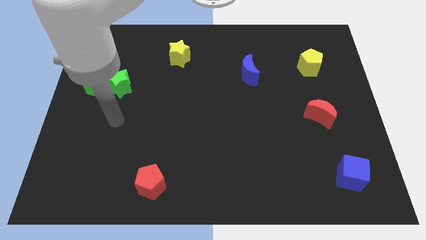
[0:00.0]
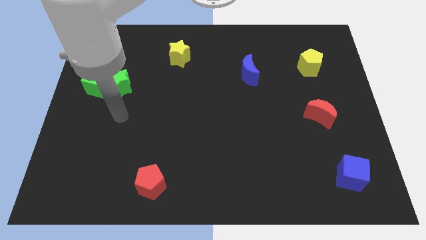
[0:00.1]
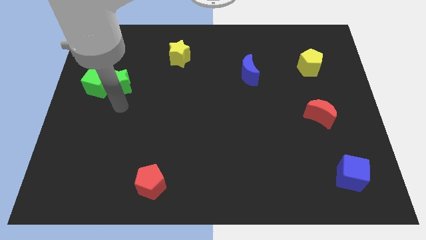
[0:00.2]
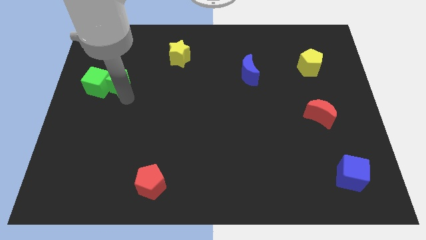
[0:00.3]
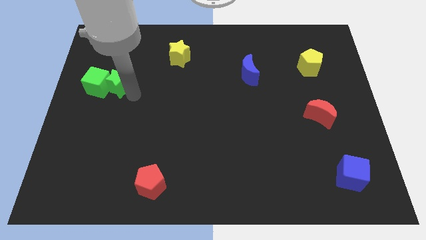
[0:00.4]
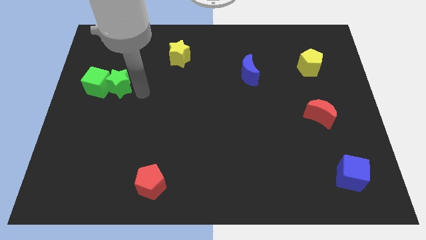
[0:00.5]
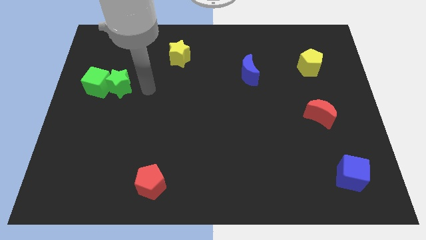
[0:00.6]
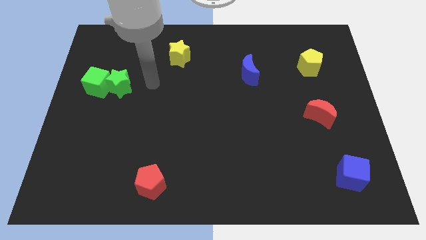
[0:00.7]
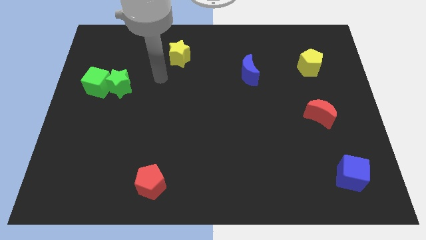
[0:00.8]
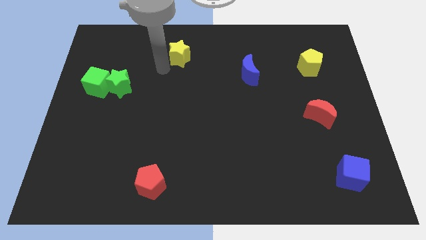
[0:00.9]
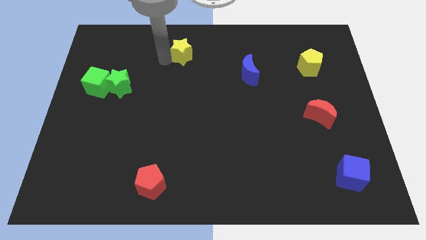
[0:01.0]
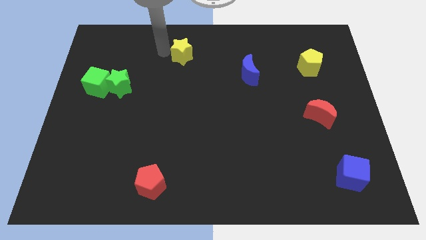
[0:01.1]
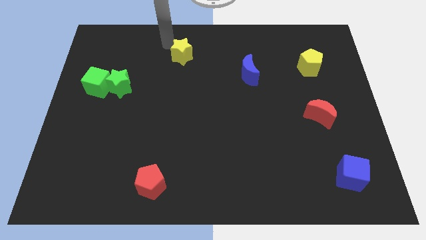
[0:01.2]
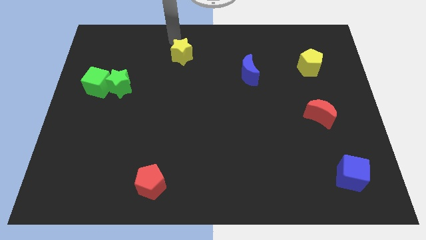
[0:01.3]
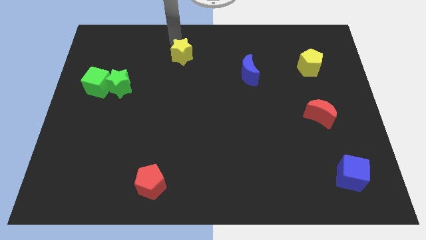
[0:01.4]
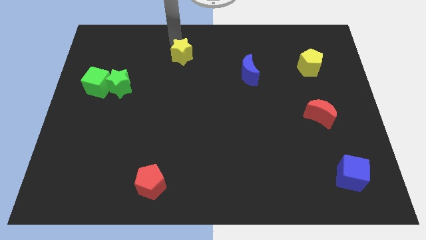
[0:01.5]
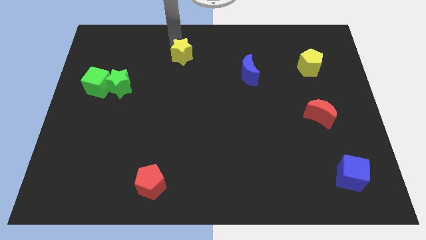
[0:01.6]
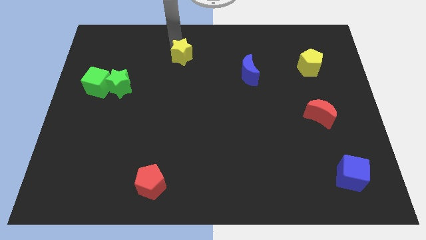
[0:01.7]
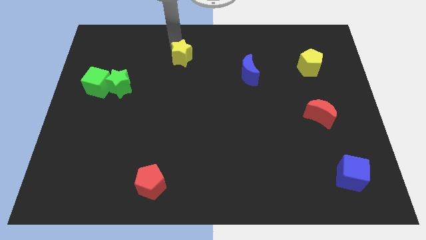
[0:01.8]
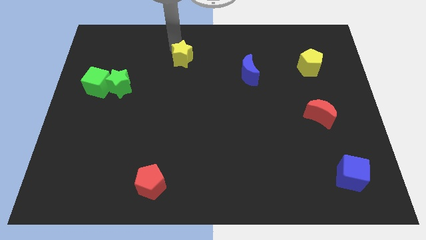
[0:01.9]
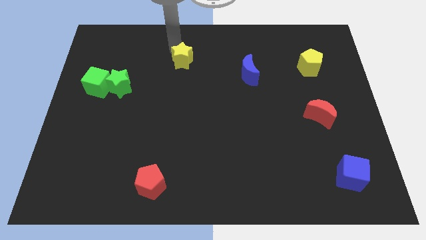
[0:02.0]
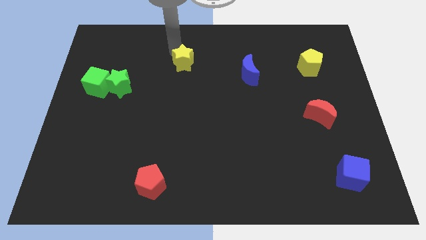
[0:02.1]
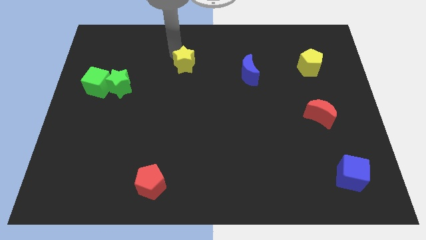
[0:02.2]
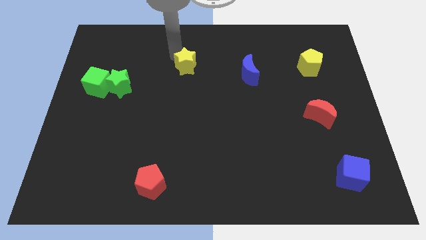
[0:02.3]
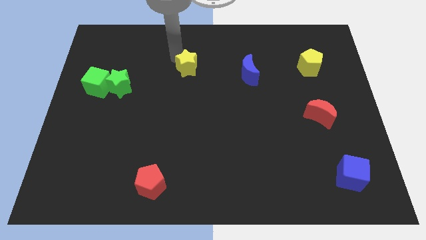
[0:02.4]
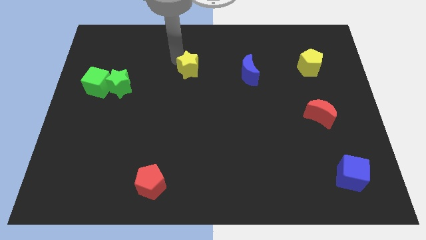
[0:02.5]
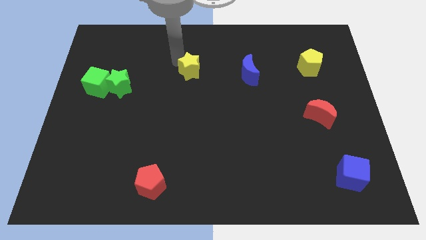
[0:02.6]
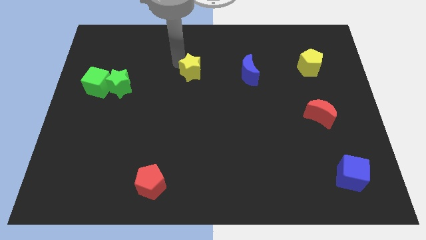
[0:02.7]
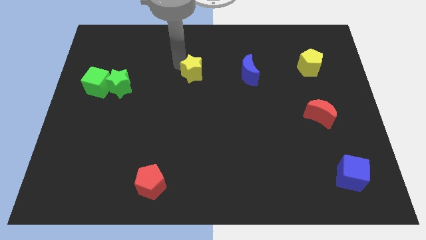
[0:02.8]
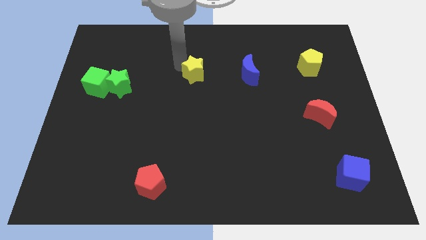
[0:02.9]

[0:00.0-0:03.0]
slide the yellow star a little diagonally down and right

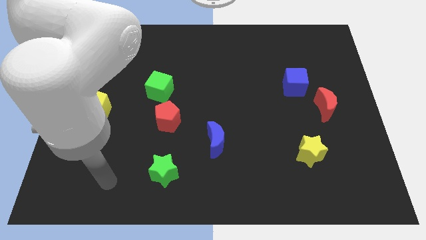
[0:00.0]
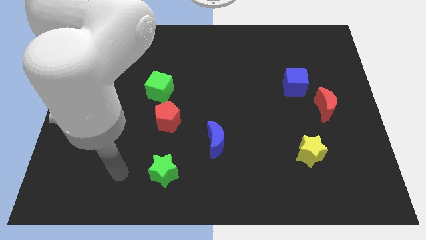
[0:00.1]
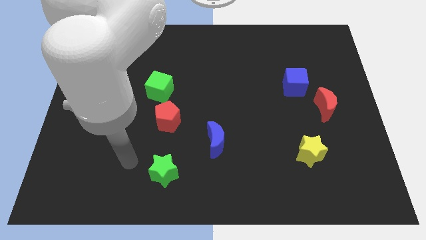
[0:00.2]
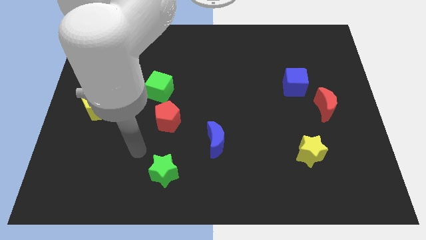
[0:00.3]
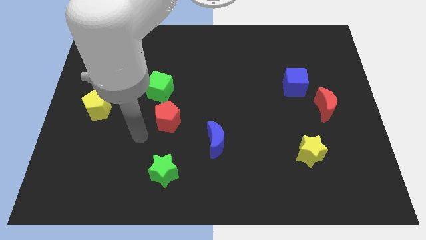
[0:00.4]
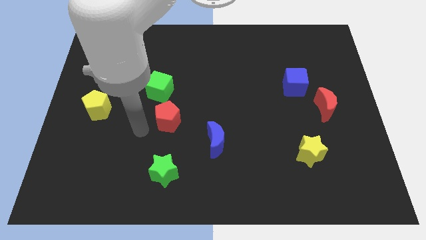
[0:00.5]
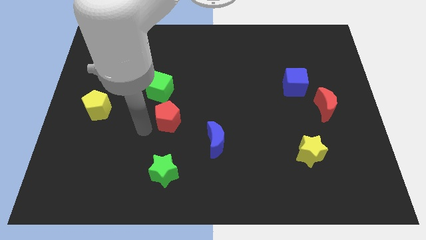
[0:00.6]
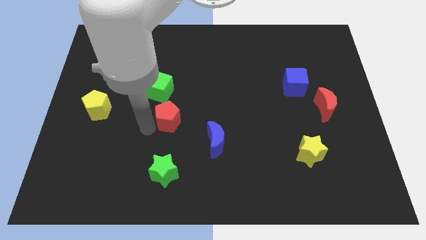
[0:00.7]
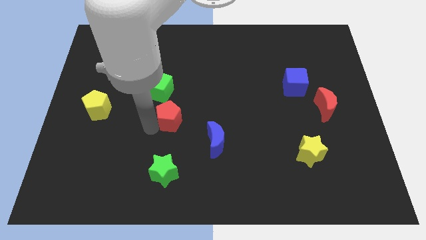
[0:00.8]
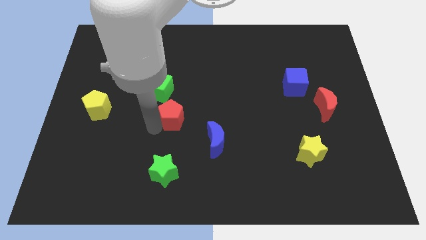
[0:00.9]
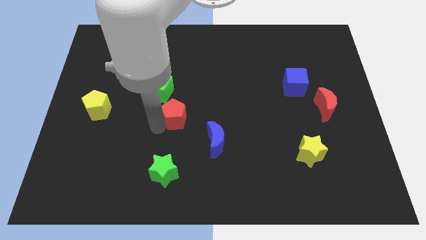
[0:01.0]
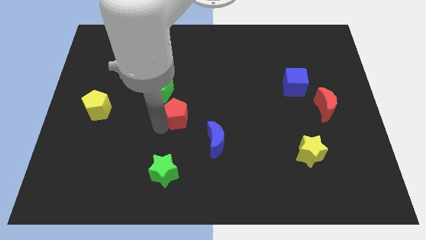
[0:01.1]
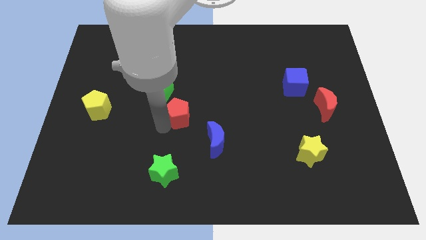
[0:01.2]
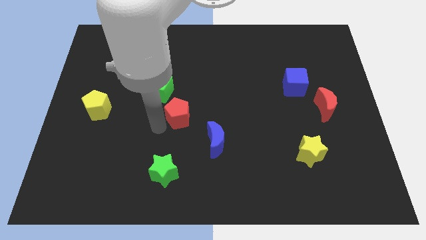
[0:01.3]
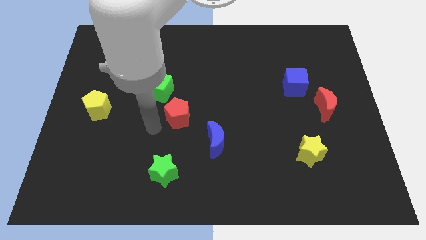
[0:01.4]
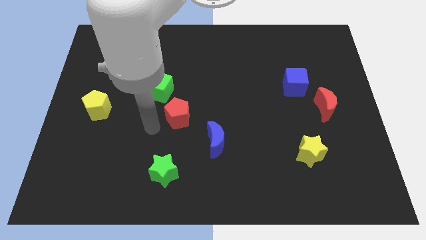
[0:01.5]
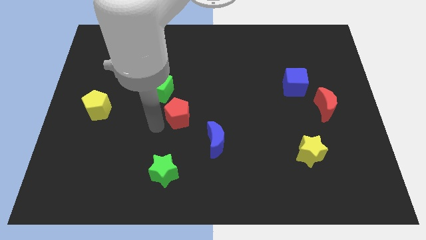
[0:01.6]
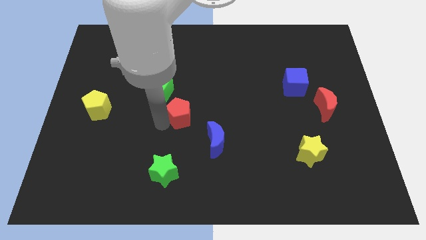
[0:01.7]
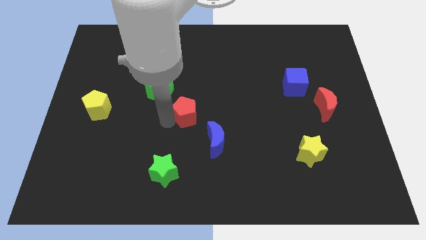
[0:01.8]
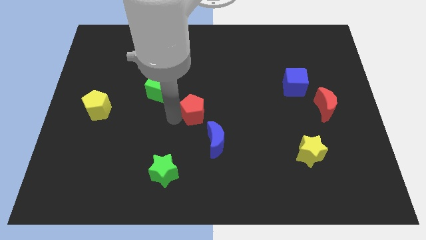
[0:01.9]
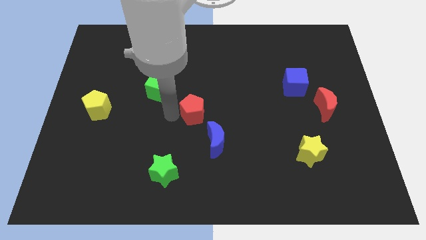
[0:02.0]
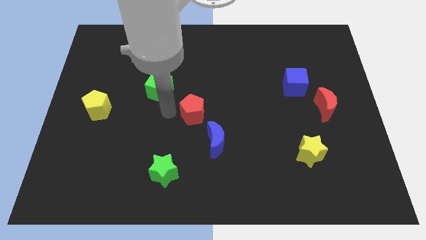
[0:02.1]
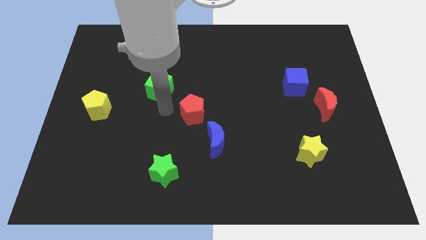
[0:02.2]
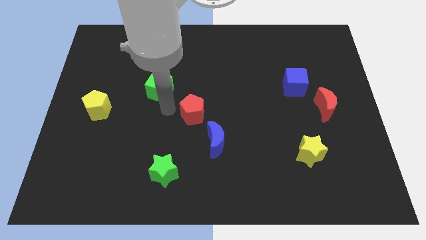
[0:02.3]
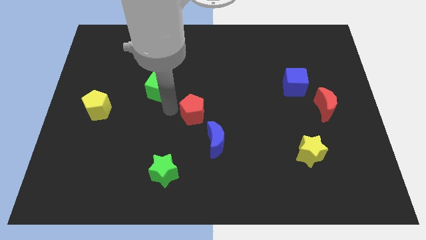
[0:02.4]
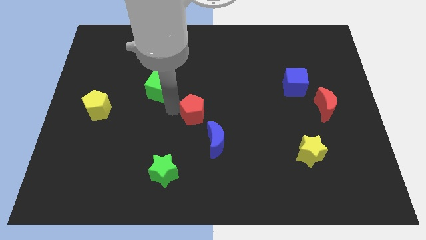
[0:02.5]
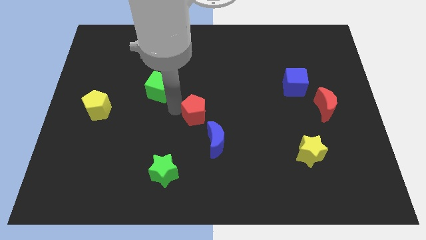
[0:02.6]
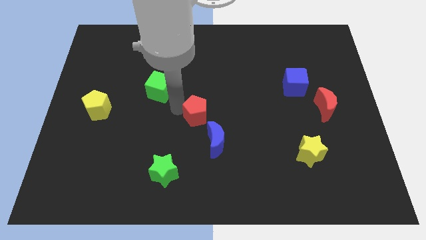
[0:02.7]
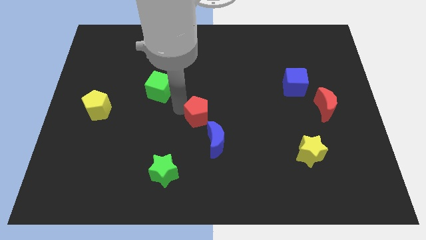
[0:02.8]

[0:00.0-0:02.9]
slide the red pentagon right a little

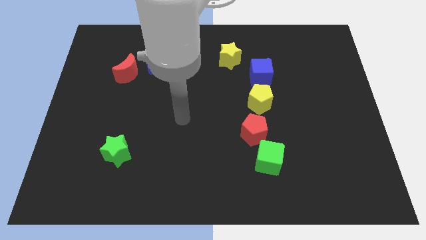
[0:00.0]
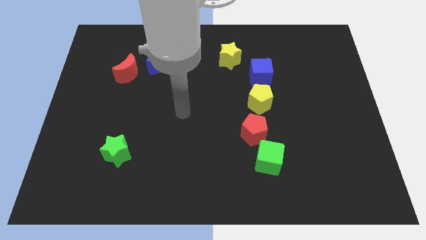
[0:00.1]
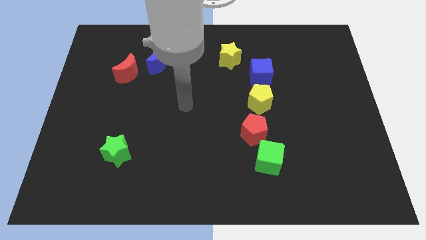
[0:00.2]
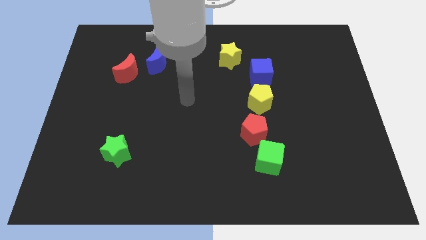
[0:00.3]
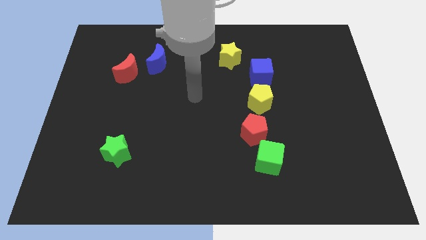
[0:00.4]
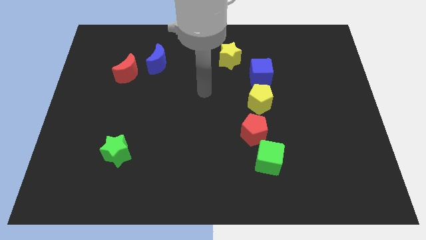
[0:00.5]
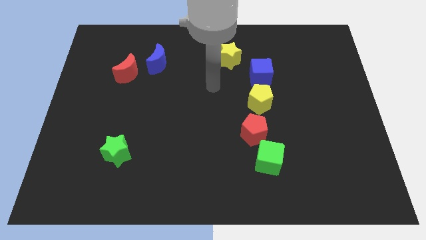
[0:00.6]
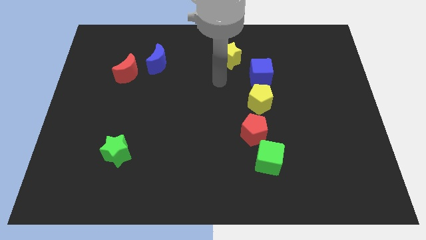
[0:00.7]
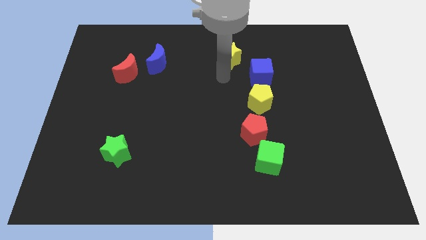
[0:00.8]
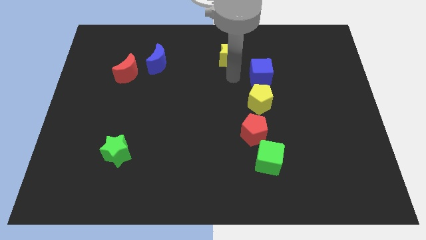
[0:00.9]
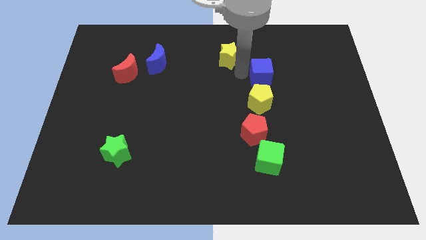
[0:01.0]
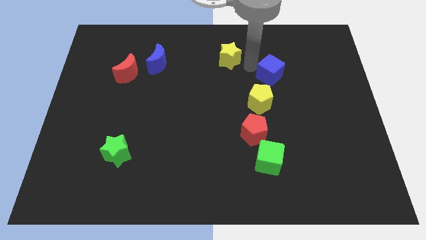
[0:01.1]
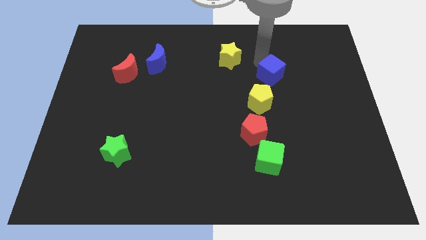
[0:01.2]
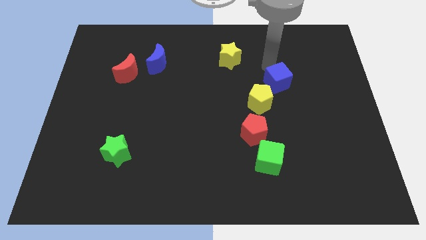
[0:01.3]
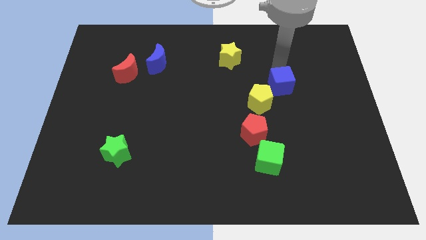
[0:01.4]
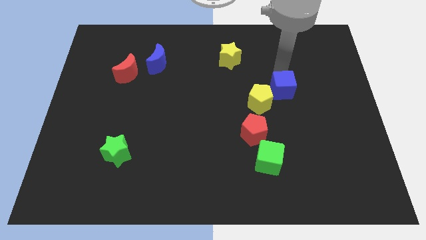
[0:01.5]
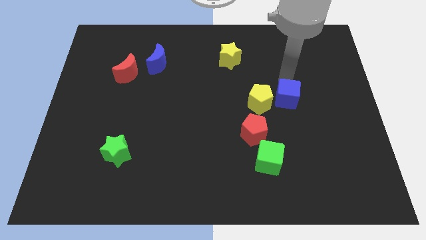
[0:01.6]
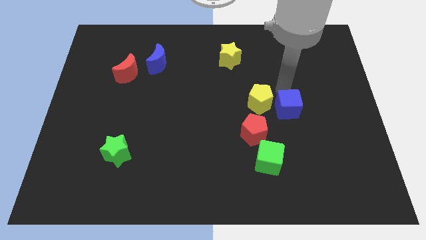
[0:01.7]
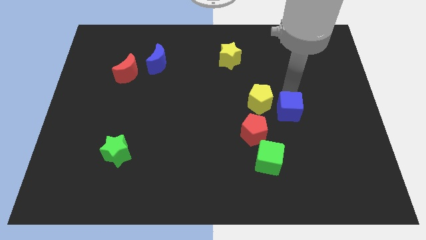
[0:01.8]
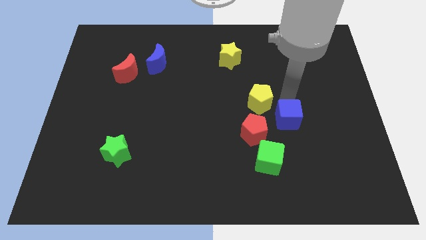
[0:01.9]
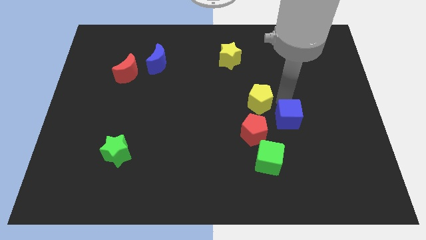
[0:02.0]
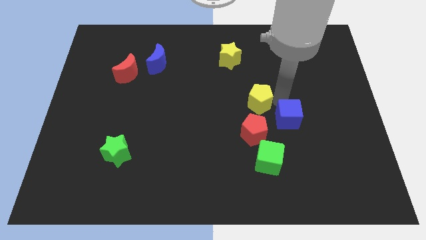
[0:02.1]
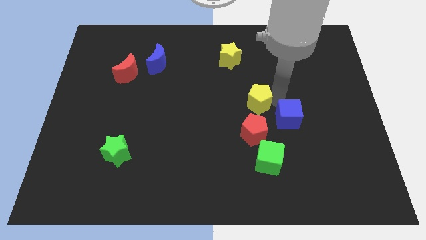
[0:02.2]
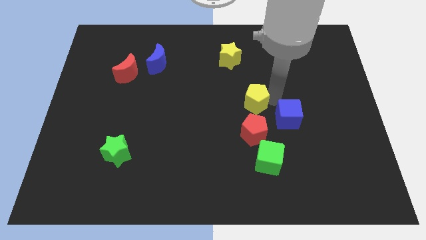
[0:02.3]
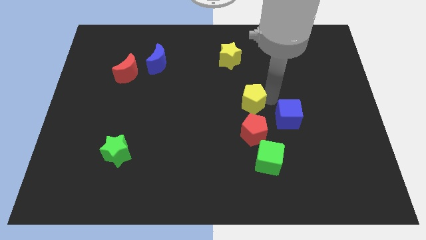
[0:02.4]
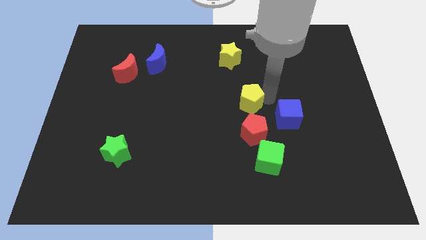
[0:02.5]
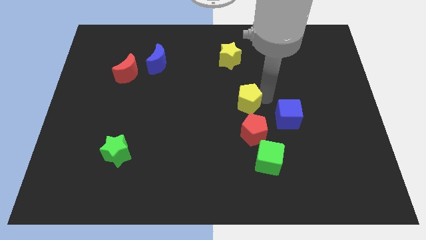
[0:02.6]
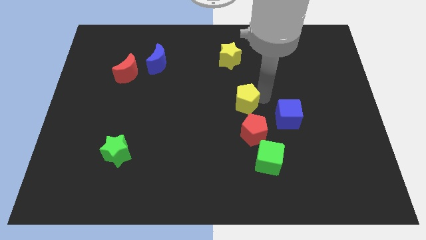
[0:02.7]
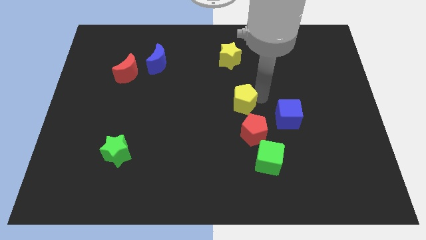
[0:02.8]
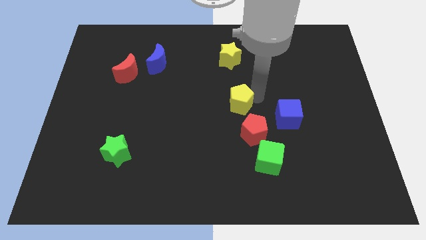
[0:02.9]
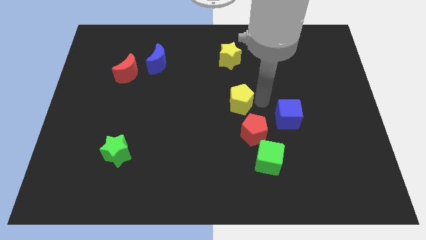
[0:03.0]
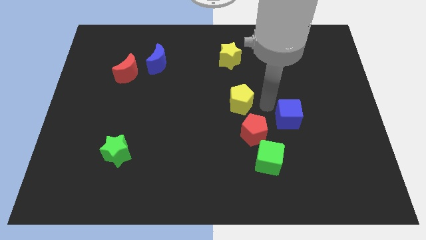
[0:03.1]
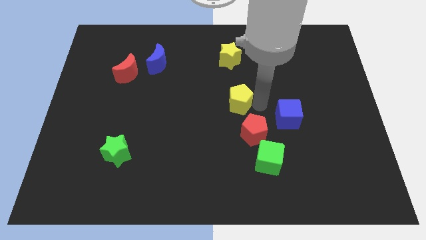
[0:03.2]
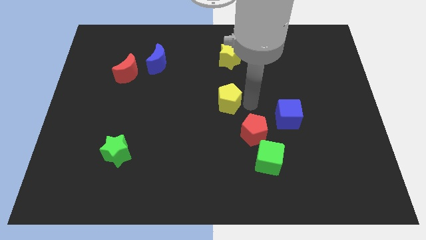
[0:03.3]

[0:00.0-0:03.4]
slide the yellow pentagon left somewhat
